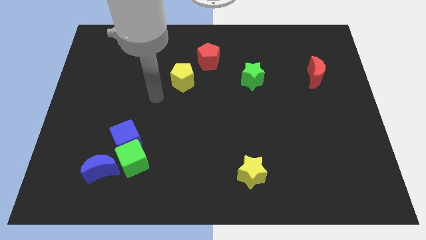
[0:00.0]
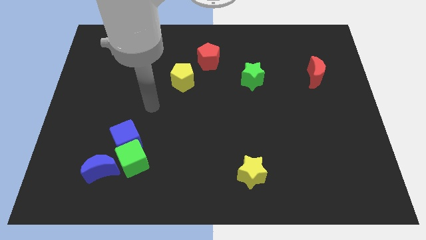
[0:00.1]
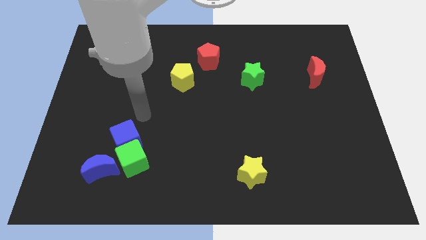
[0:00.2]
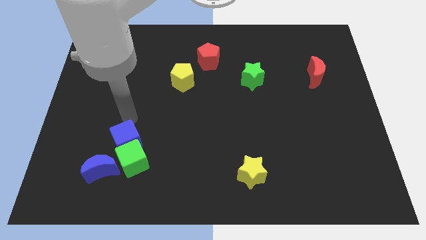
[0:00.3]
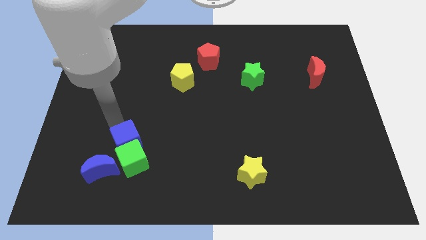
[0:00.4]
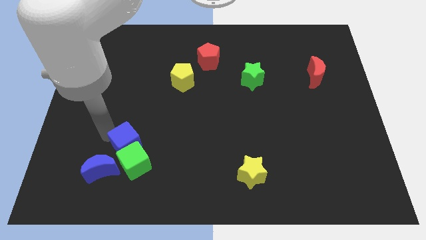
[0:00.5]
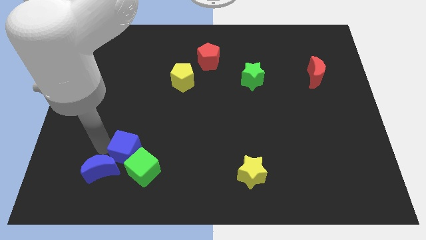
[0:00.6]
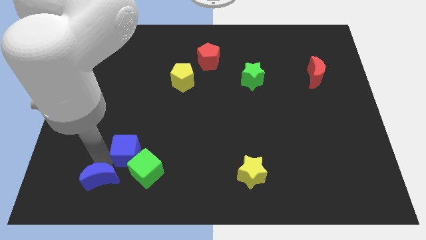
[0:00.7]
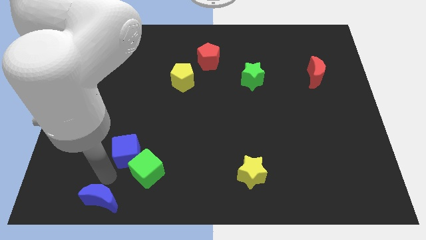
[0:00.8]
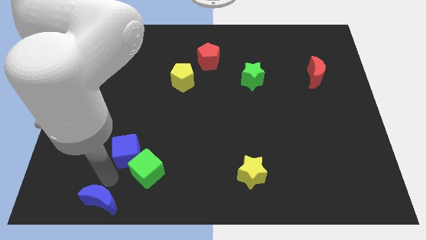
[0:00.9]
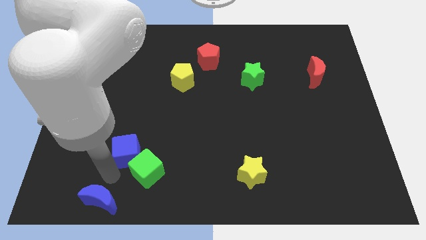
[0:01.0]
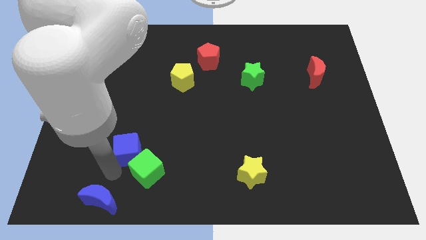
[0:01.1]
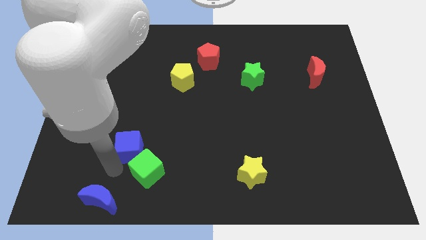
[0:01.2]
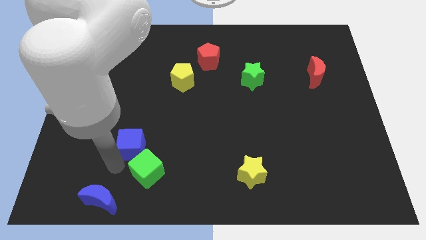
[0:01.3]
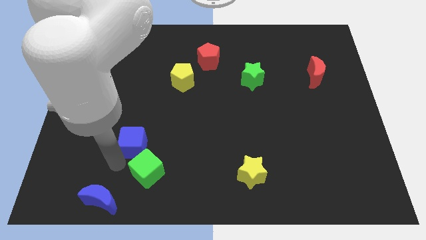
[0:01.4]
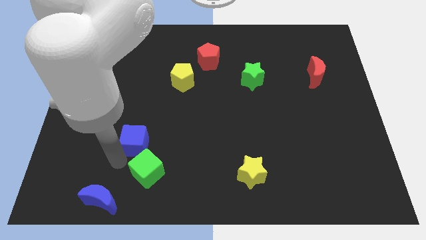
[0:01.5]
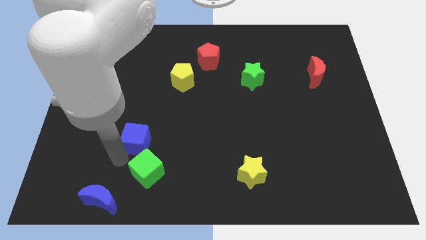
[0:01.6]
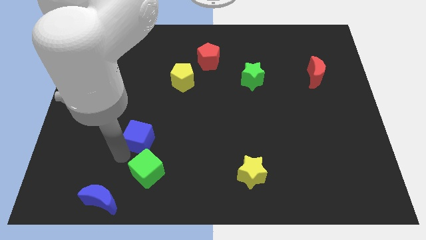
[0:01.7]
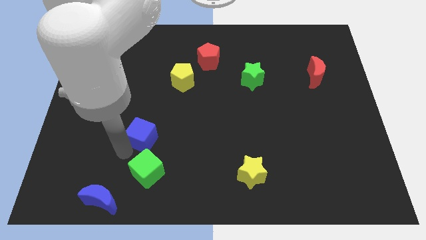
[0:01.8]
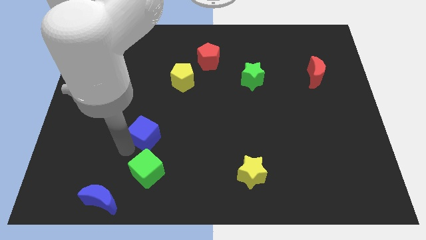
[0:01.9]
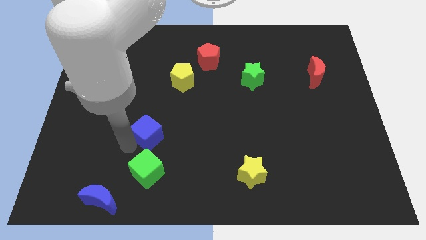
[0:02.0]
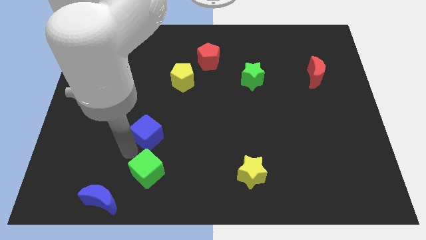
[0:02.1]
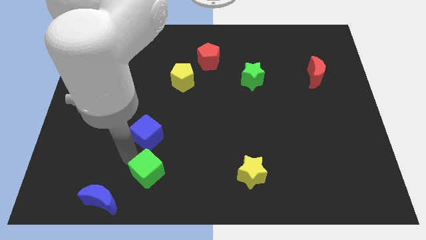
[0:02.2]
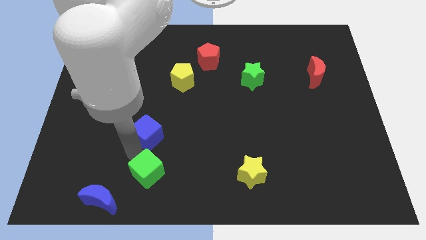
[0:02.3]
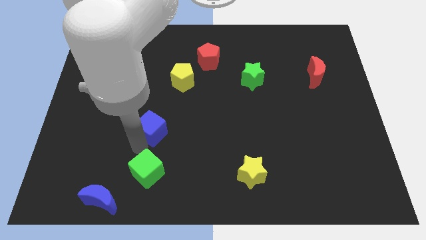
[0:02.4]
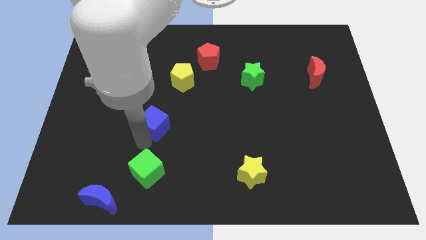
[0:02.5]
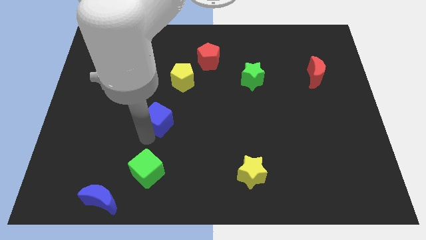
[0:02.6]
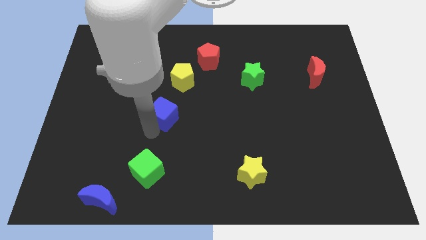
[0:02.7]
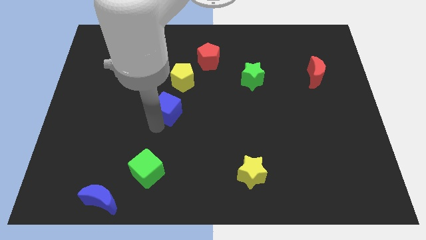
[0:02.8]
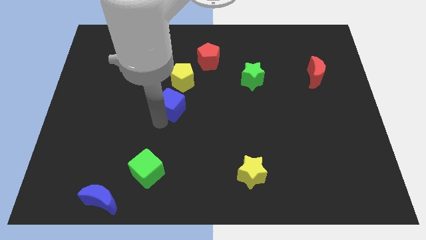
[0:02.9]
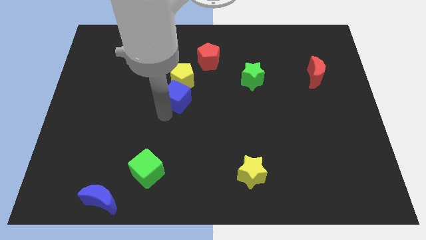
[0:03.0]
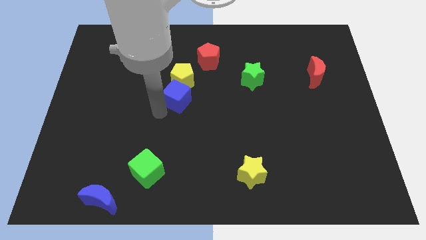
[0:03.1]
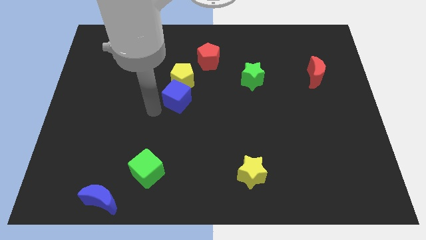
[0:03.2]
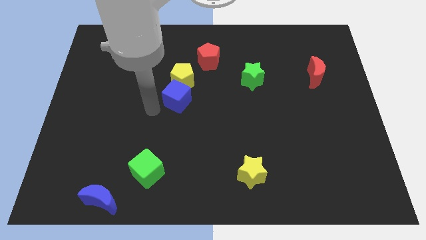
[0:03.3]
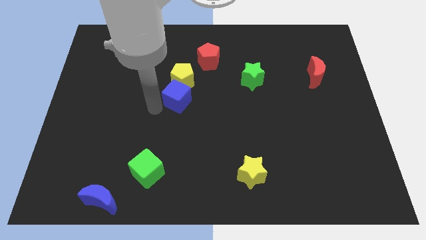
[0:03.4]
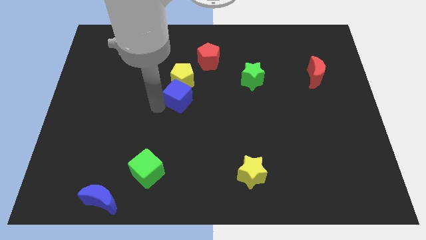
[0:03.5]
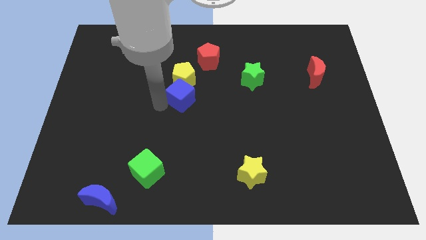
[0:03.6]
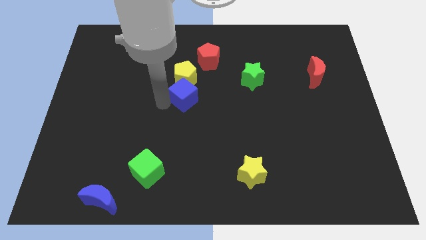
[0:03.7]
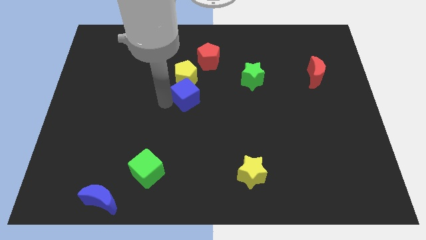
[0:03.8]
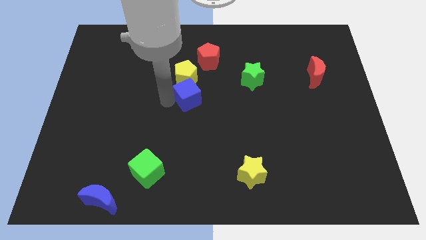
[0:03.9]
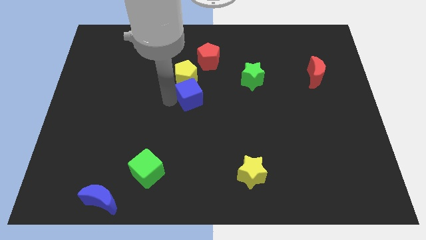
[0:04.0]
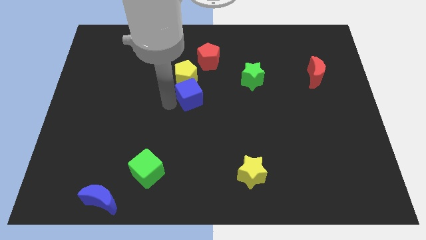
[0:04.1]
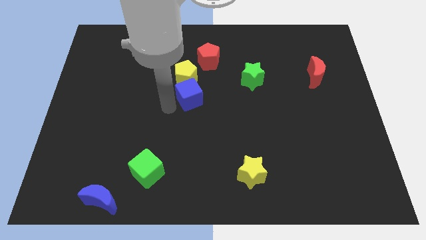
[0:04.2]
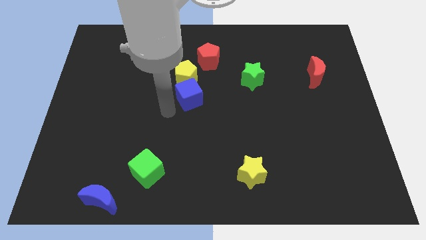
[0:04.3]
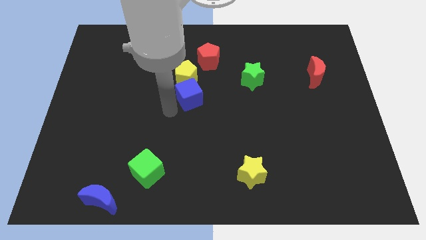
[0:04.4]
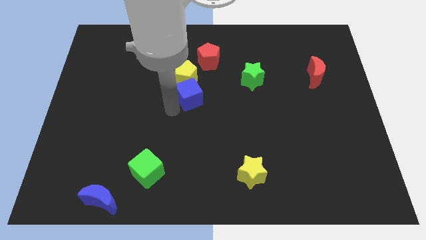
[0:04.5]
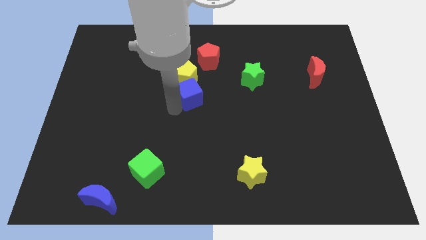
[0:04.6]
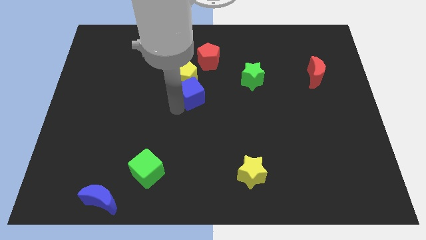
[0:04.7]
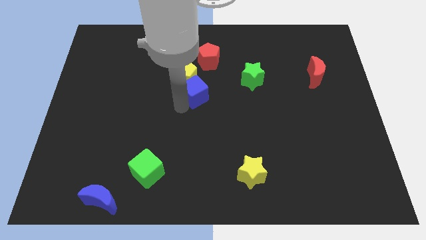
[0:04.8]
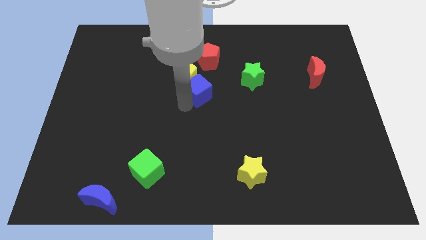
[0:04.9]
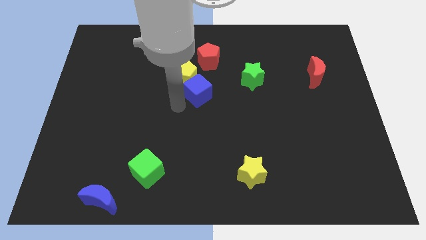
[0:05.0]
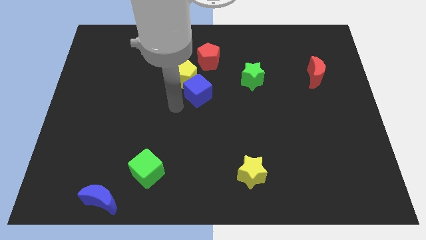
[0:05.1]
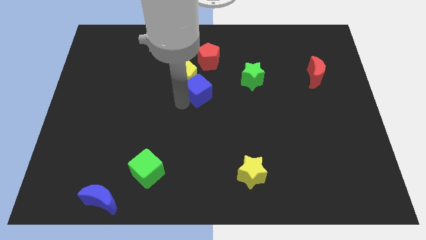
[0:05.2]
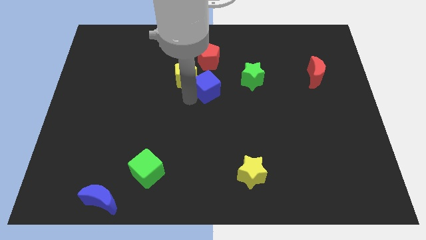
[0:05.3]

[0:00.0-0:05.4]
push the blue cube to the right of the yellow pentagon

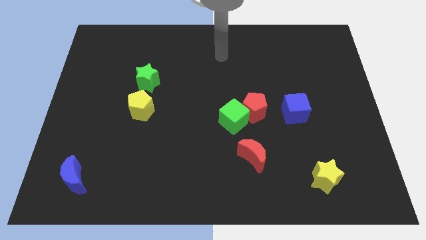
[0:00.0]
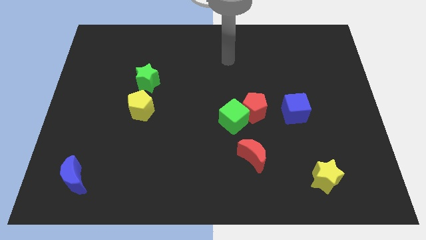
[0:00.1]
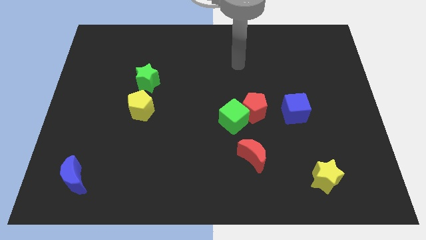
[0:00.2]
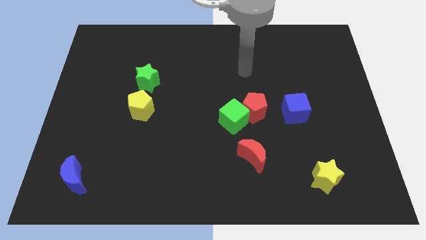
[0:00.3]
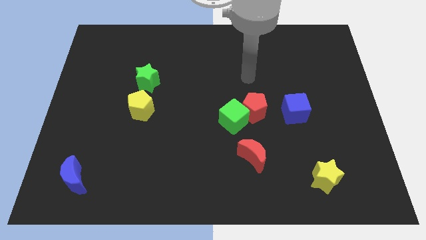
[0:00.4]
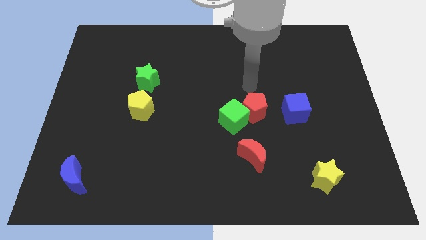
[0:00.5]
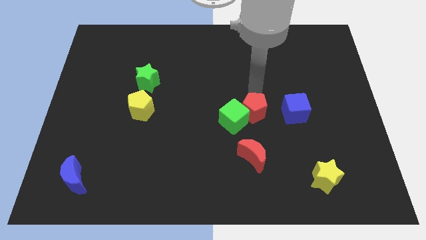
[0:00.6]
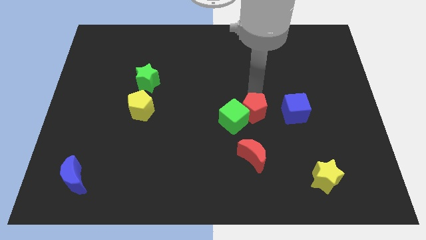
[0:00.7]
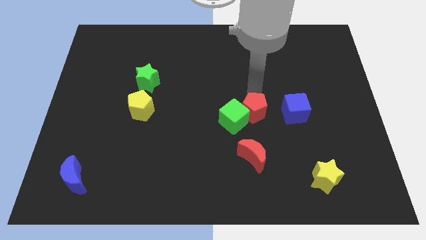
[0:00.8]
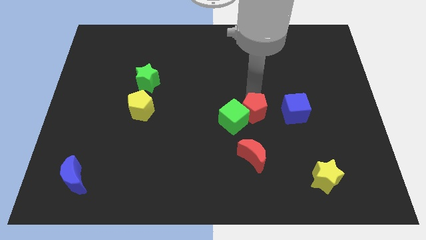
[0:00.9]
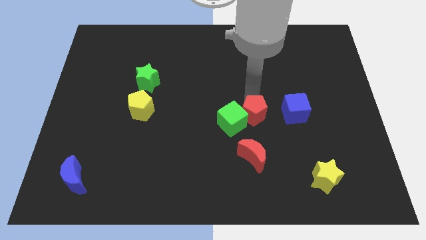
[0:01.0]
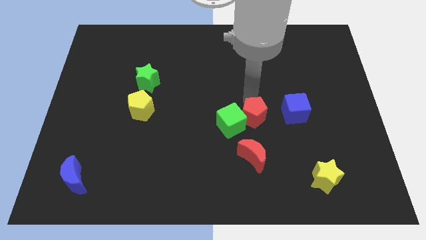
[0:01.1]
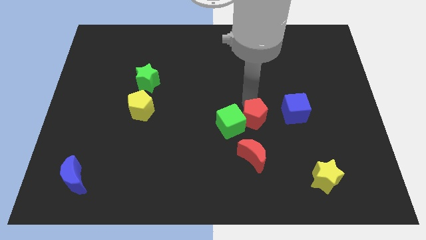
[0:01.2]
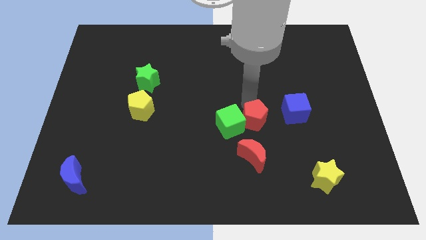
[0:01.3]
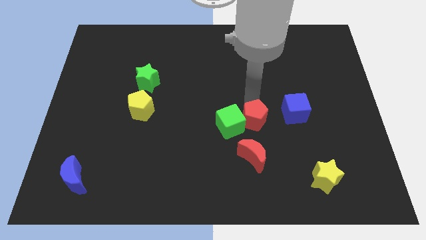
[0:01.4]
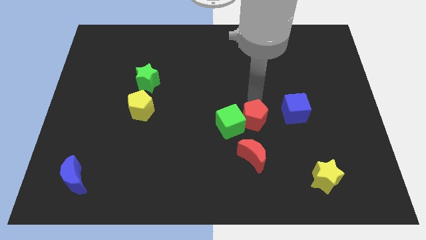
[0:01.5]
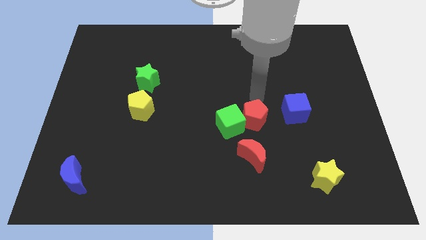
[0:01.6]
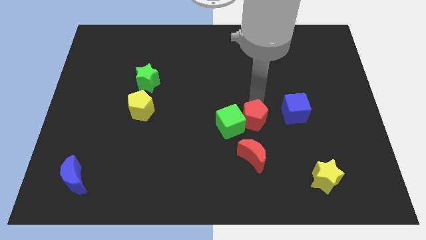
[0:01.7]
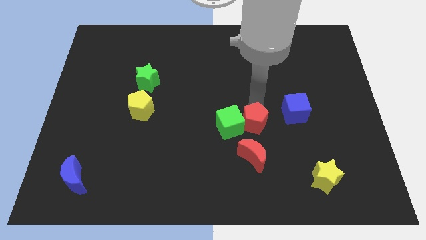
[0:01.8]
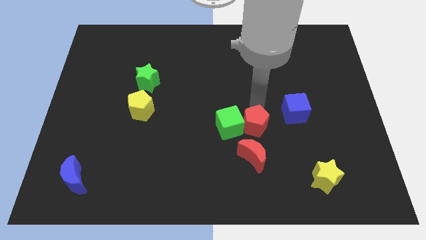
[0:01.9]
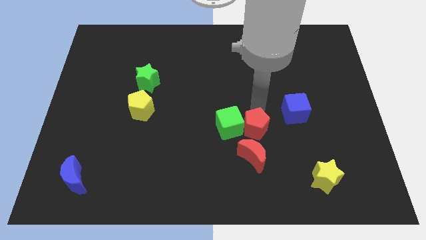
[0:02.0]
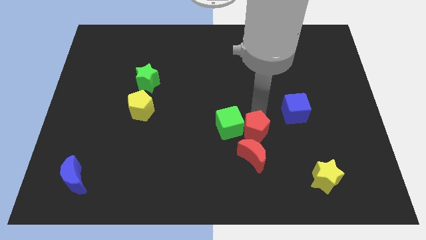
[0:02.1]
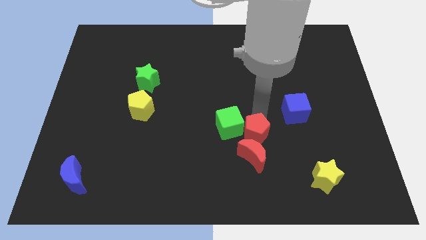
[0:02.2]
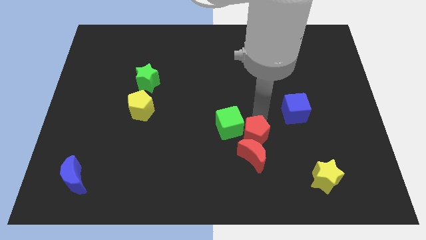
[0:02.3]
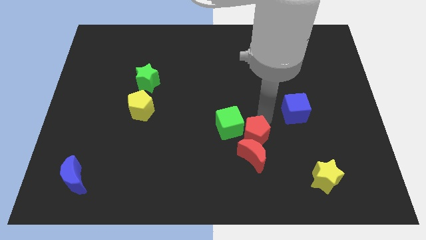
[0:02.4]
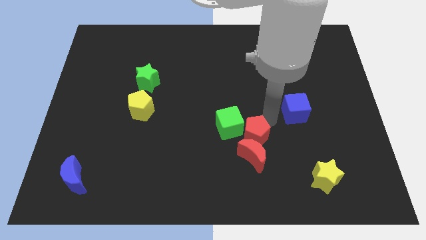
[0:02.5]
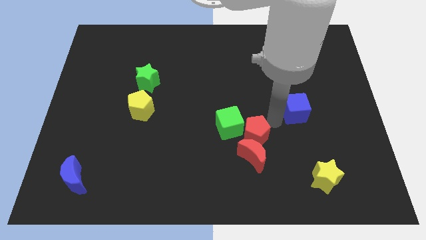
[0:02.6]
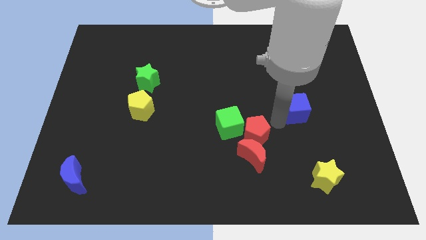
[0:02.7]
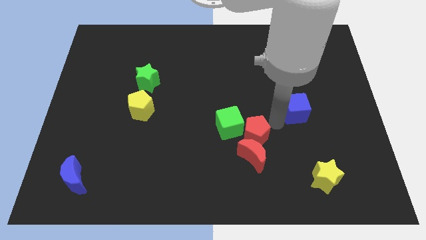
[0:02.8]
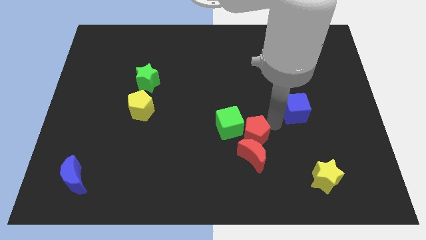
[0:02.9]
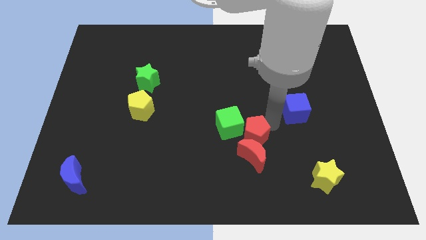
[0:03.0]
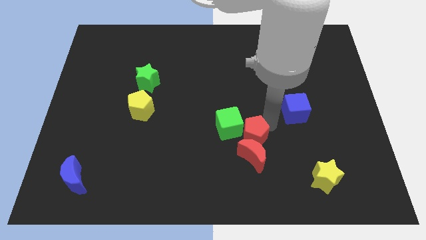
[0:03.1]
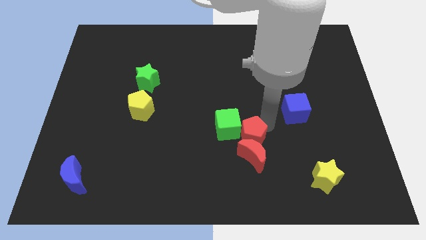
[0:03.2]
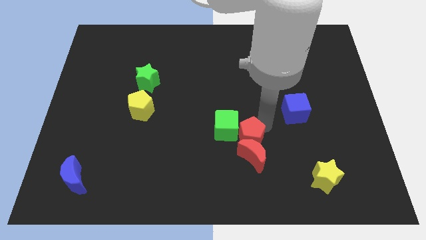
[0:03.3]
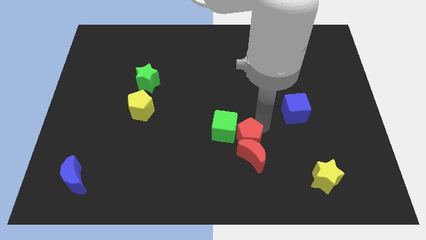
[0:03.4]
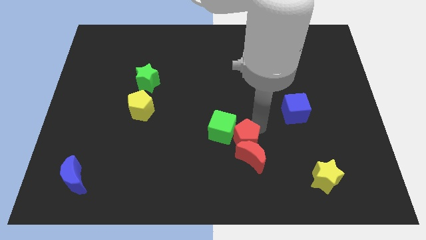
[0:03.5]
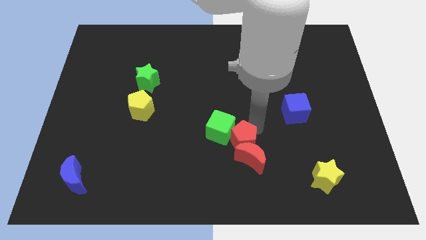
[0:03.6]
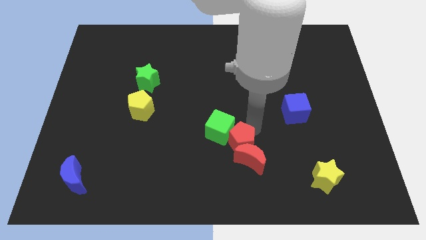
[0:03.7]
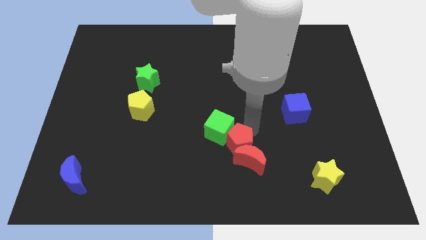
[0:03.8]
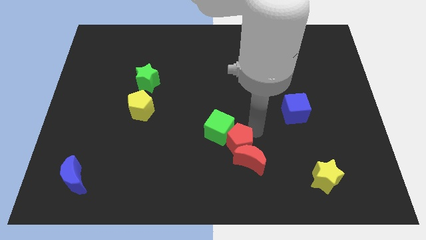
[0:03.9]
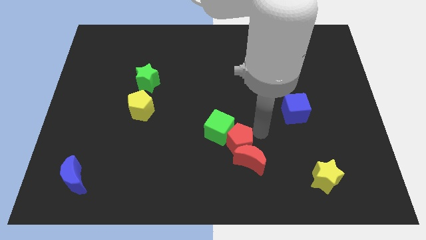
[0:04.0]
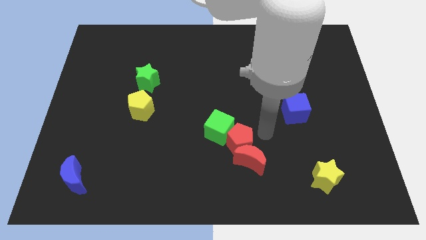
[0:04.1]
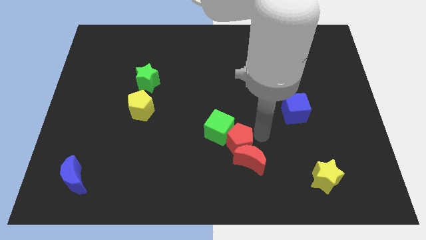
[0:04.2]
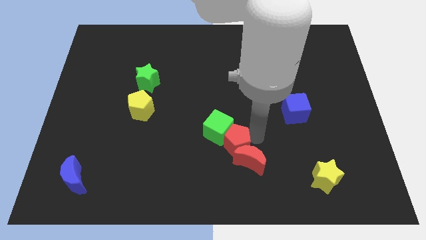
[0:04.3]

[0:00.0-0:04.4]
put the red pentagon to the left of the red moon
